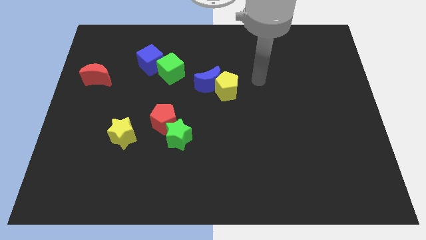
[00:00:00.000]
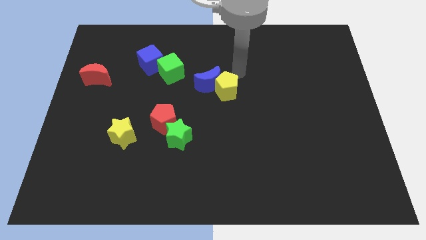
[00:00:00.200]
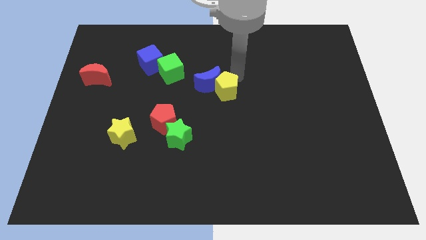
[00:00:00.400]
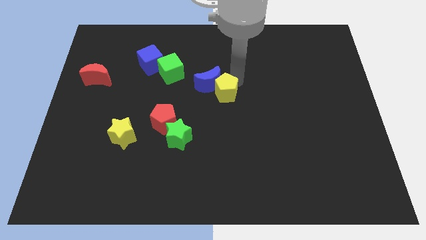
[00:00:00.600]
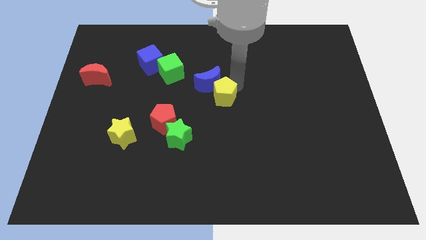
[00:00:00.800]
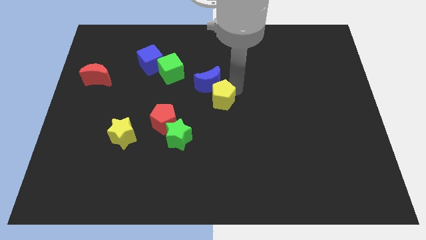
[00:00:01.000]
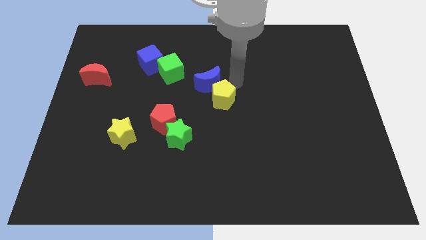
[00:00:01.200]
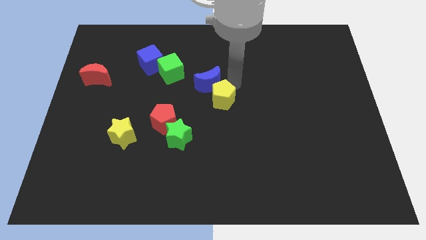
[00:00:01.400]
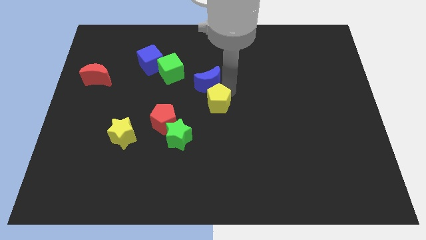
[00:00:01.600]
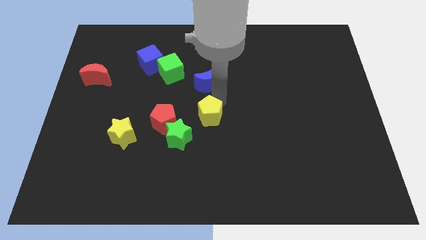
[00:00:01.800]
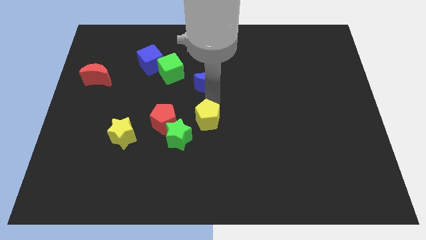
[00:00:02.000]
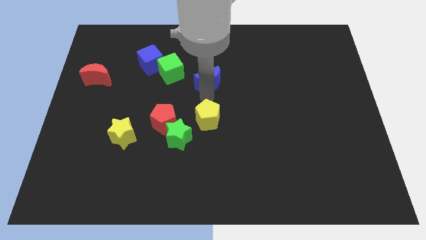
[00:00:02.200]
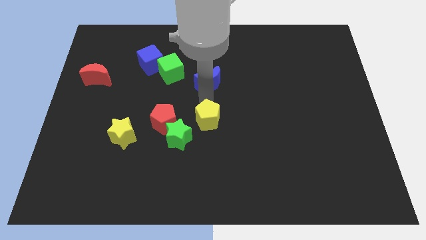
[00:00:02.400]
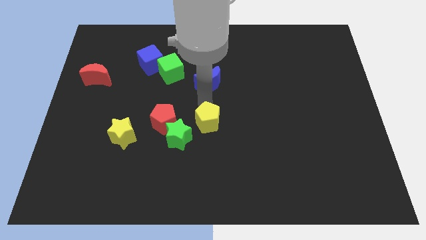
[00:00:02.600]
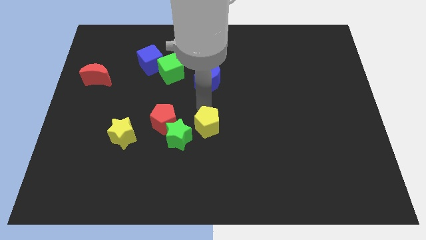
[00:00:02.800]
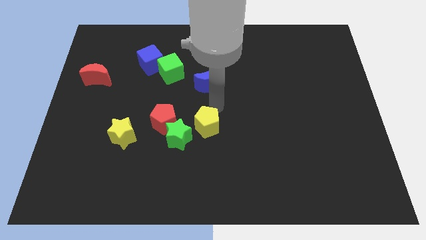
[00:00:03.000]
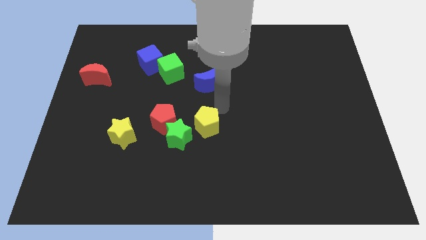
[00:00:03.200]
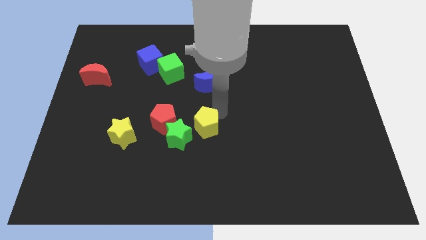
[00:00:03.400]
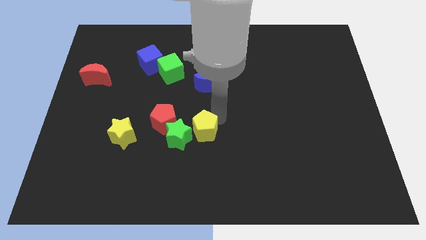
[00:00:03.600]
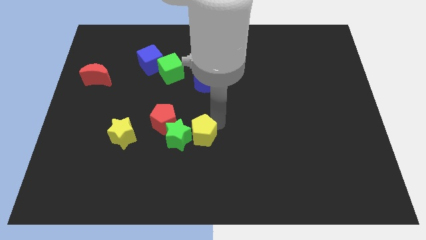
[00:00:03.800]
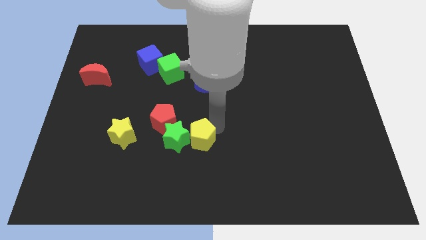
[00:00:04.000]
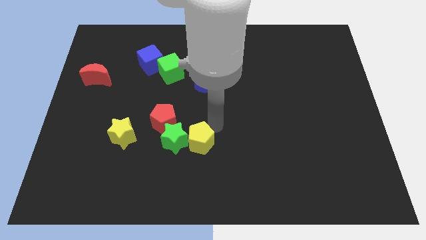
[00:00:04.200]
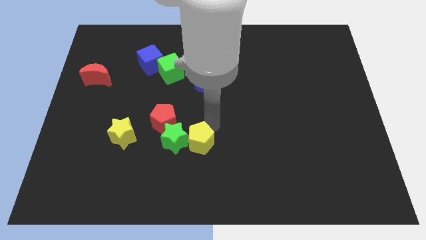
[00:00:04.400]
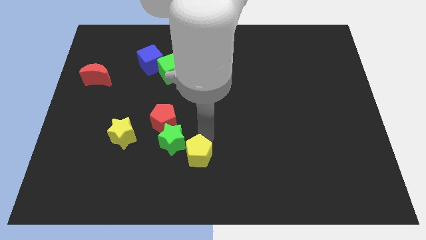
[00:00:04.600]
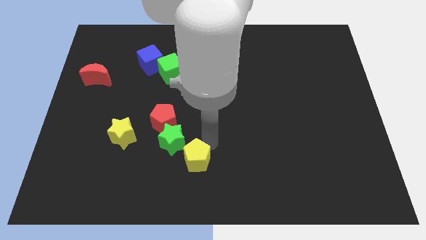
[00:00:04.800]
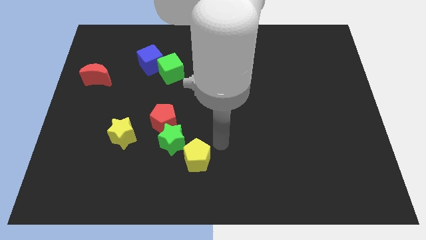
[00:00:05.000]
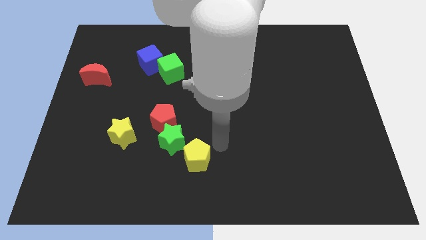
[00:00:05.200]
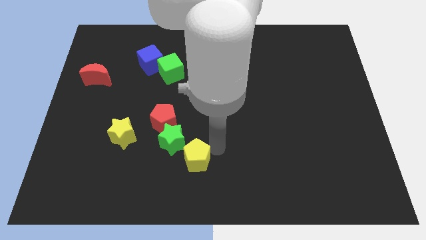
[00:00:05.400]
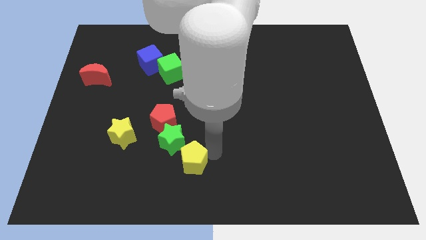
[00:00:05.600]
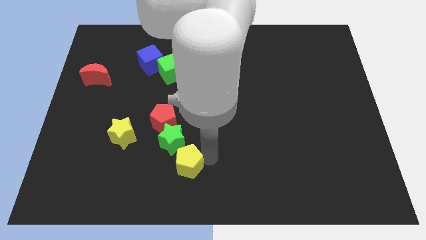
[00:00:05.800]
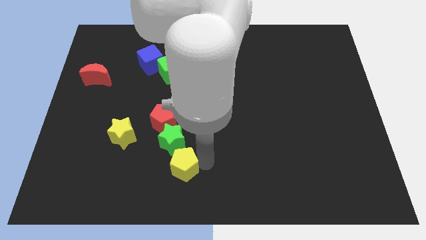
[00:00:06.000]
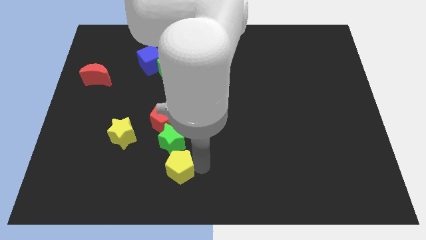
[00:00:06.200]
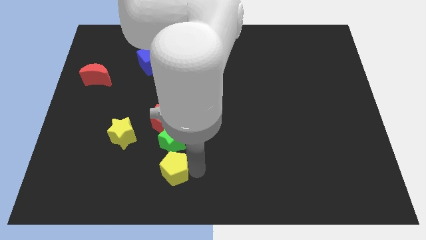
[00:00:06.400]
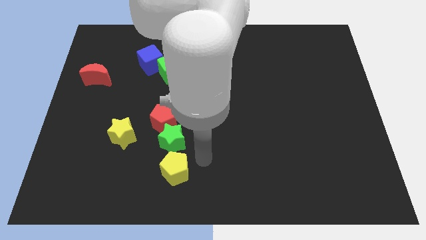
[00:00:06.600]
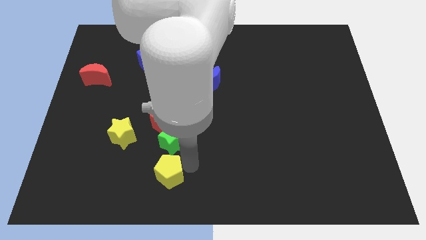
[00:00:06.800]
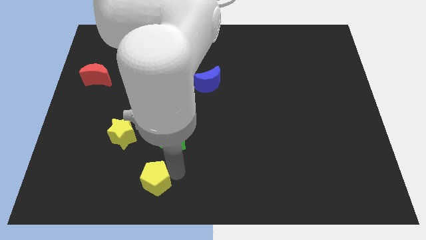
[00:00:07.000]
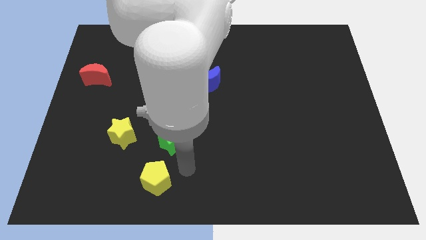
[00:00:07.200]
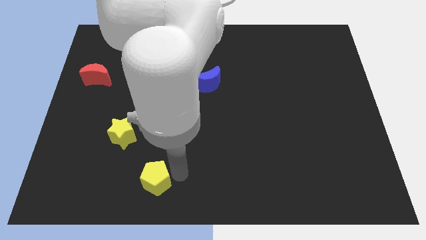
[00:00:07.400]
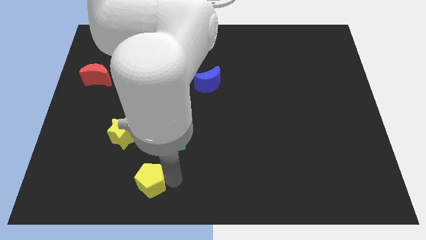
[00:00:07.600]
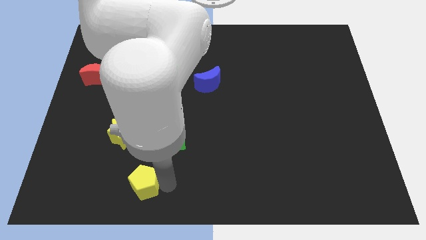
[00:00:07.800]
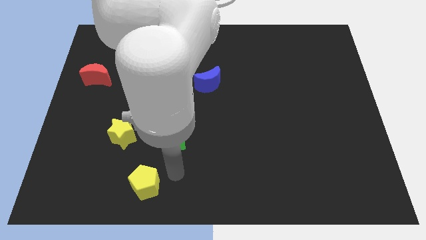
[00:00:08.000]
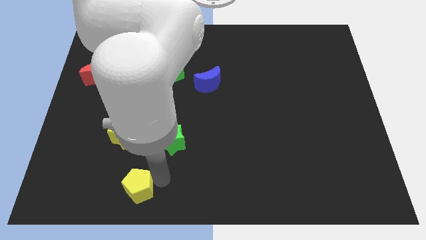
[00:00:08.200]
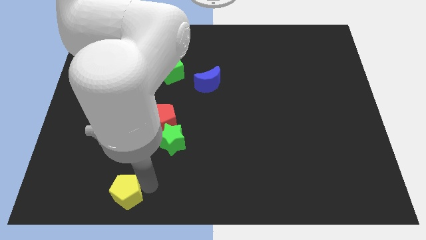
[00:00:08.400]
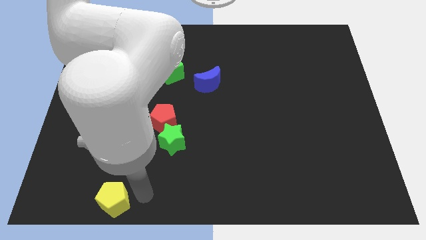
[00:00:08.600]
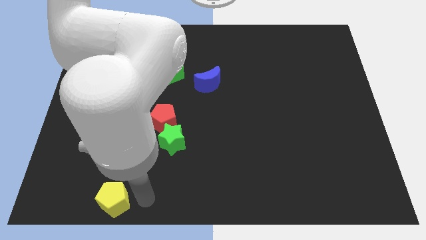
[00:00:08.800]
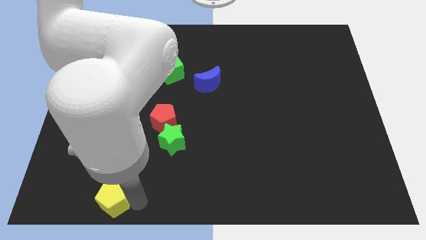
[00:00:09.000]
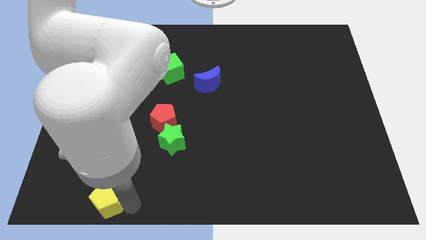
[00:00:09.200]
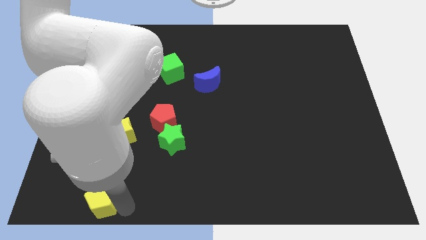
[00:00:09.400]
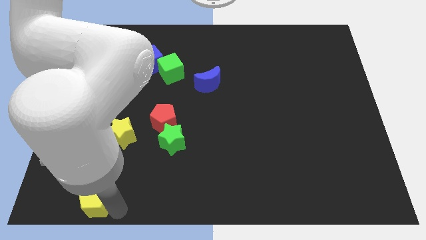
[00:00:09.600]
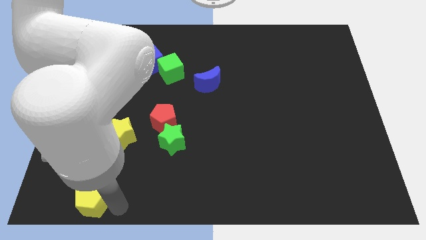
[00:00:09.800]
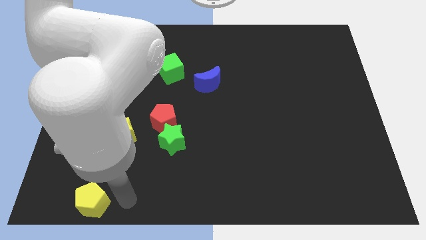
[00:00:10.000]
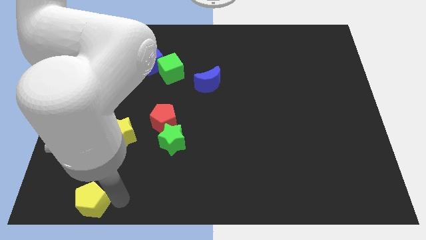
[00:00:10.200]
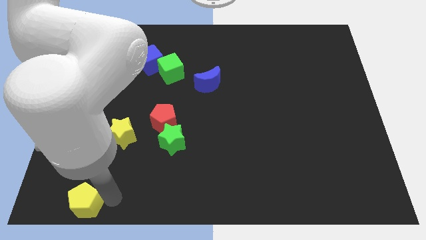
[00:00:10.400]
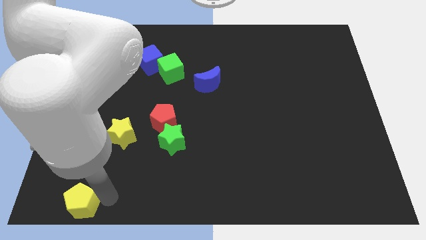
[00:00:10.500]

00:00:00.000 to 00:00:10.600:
put the yellow pentagon to the bottom left of the board

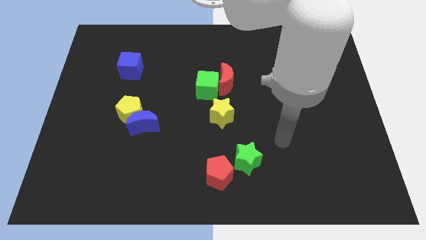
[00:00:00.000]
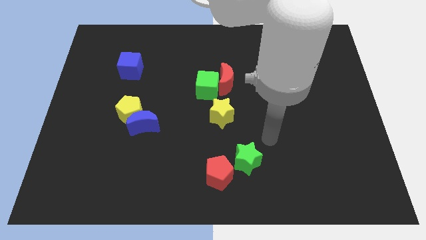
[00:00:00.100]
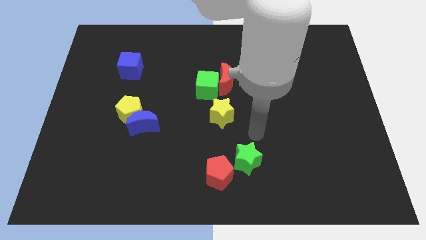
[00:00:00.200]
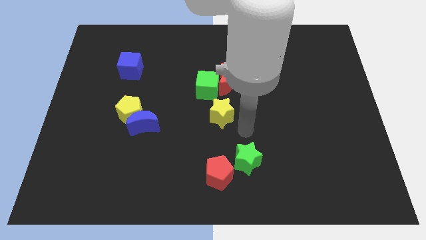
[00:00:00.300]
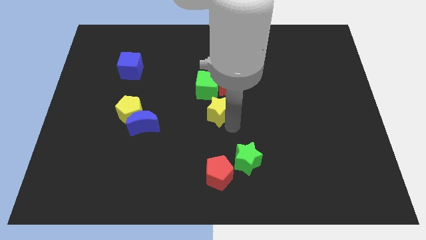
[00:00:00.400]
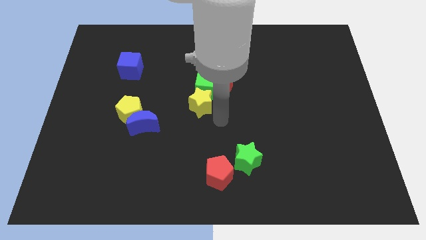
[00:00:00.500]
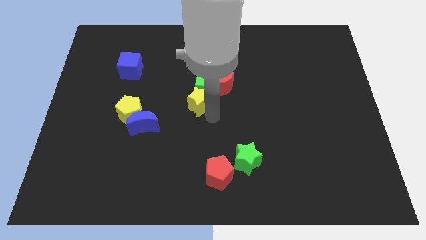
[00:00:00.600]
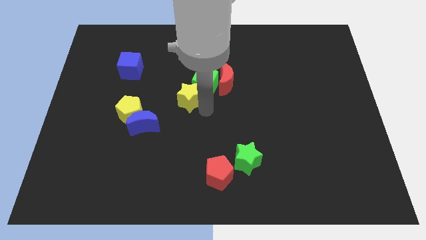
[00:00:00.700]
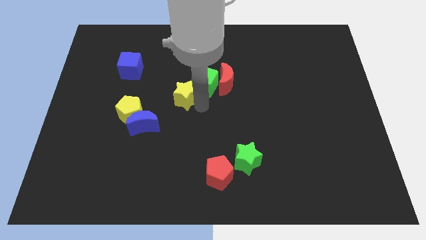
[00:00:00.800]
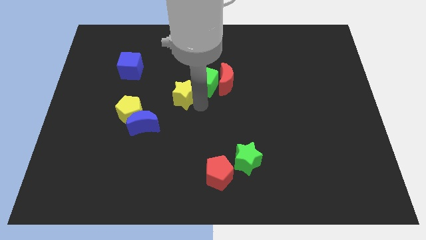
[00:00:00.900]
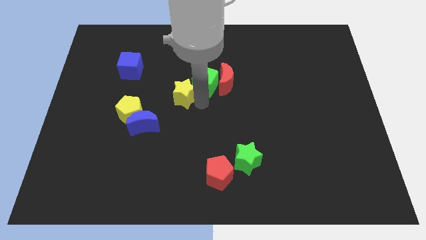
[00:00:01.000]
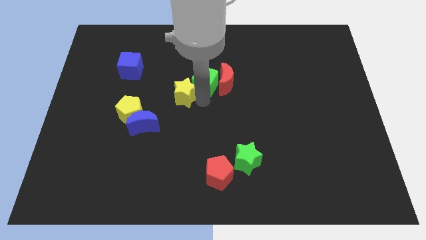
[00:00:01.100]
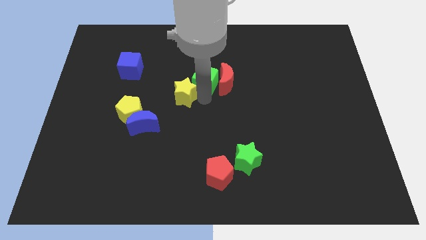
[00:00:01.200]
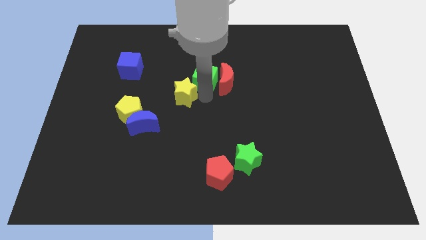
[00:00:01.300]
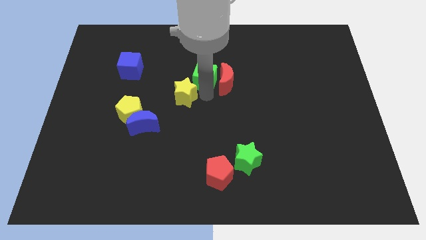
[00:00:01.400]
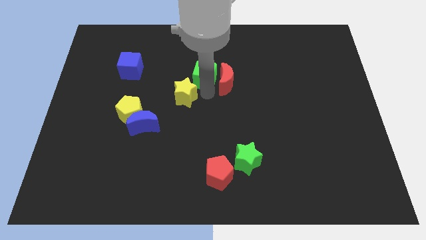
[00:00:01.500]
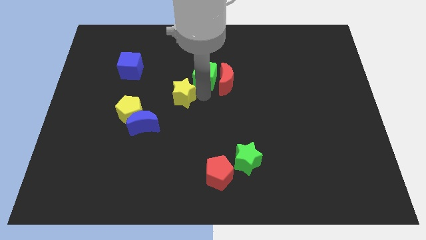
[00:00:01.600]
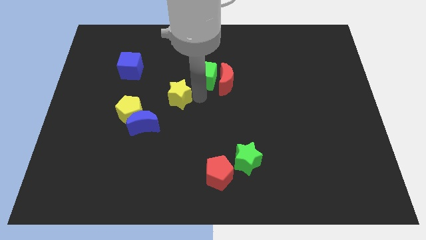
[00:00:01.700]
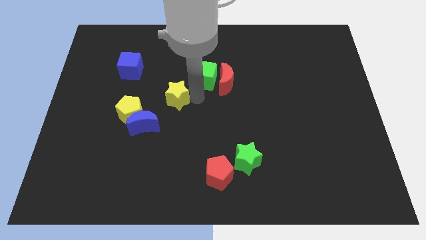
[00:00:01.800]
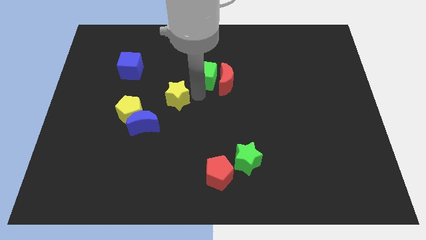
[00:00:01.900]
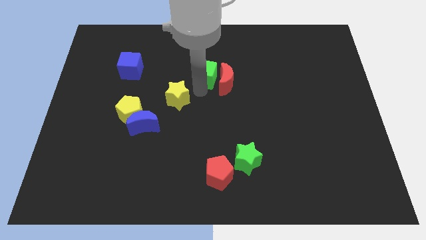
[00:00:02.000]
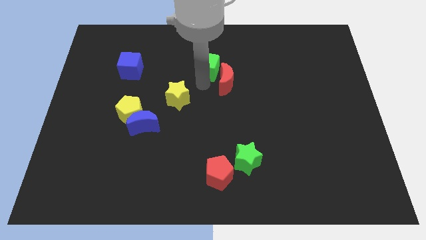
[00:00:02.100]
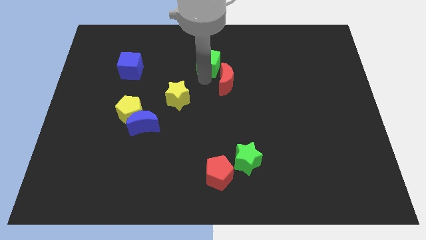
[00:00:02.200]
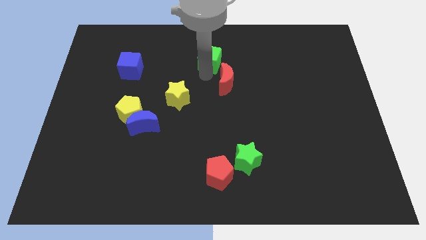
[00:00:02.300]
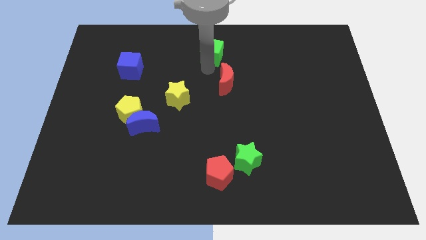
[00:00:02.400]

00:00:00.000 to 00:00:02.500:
move the green cube to the top
